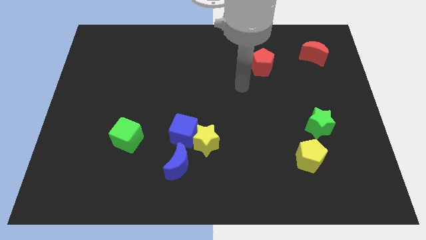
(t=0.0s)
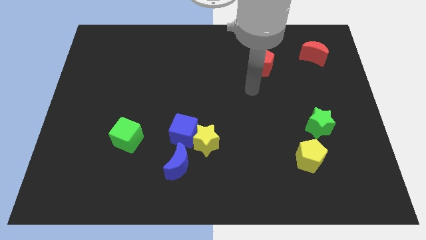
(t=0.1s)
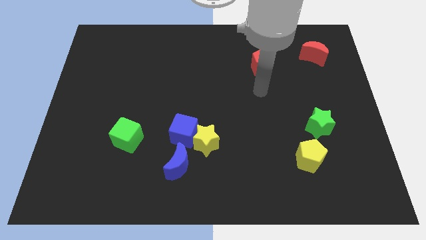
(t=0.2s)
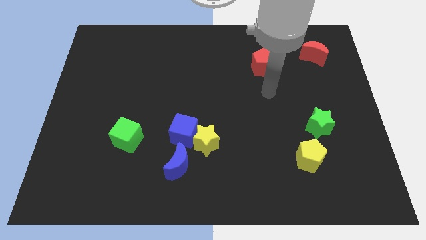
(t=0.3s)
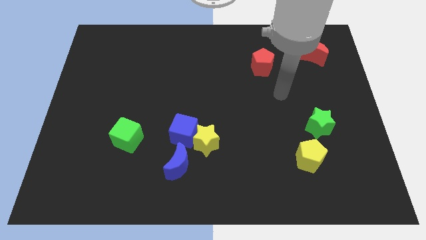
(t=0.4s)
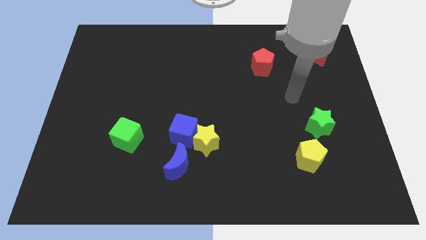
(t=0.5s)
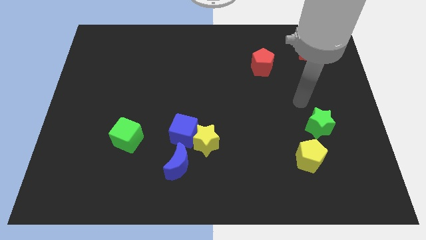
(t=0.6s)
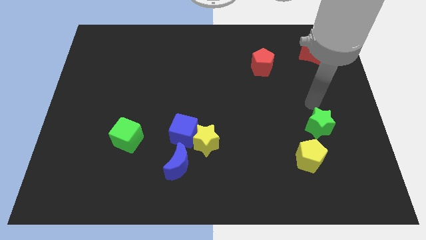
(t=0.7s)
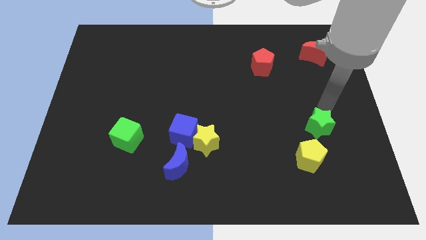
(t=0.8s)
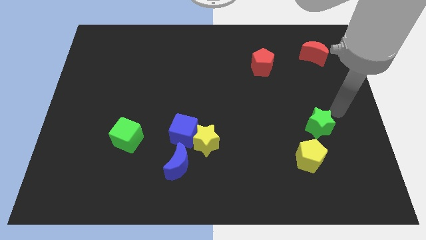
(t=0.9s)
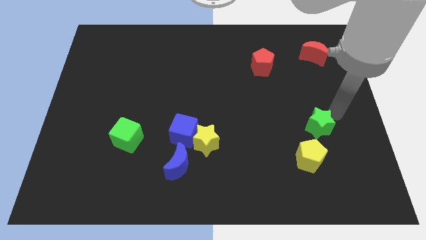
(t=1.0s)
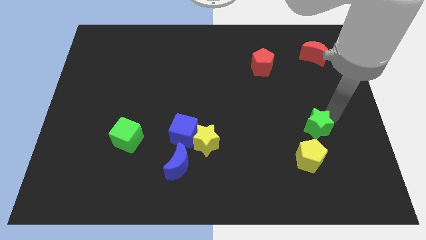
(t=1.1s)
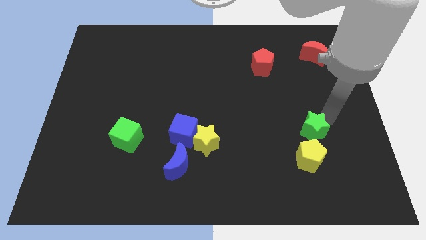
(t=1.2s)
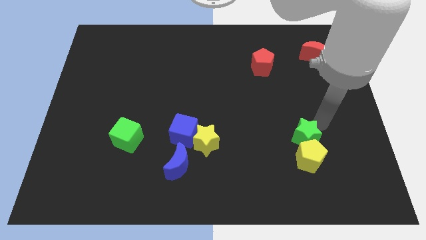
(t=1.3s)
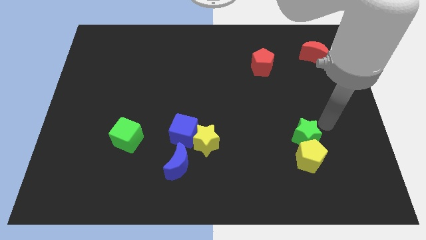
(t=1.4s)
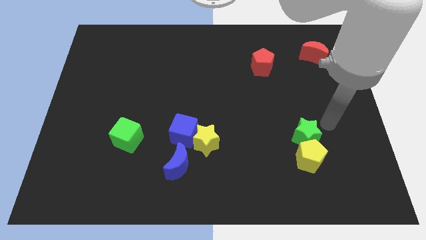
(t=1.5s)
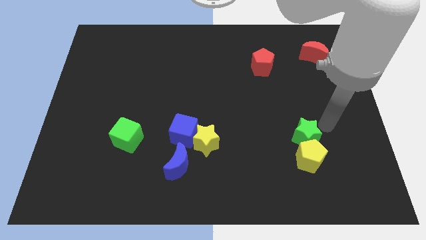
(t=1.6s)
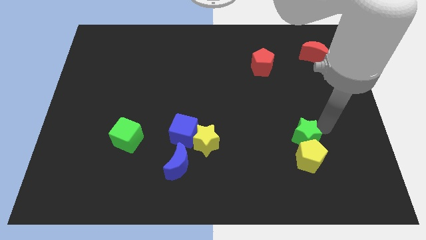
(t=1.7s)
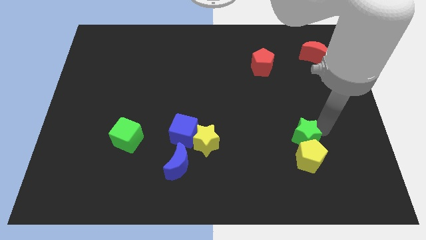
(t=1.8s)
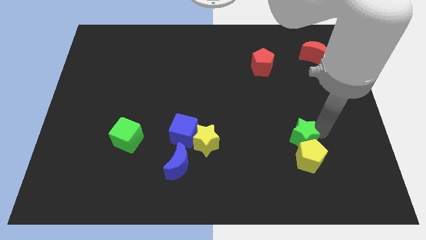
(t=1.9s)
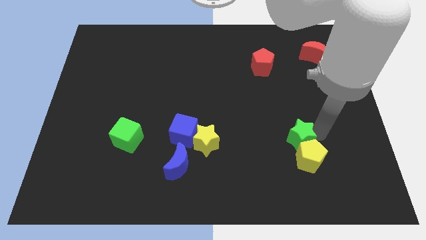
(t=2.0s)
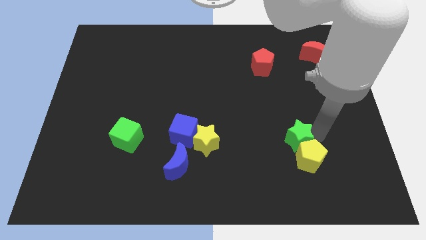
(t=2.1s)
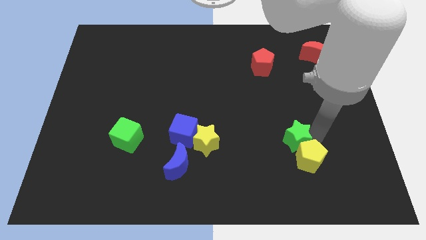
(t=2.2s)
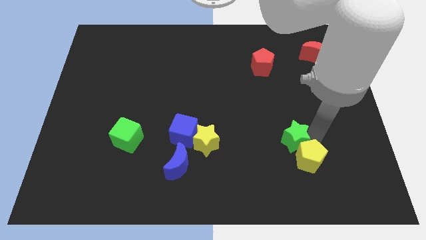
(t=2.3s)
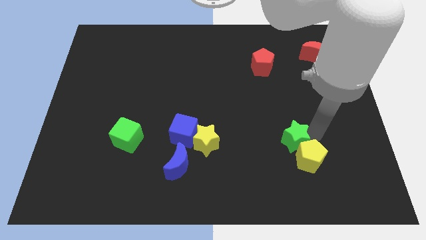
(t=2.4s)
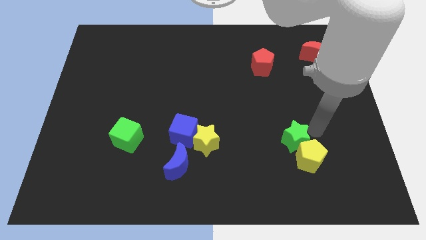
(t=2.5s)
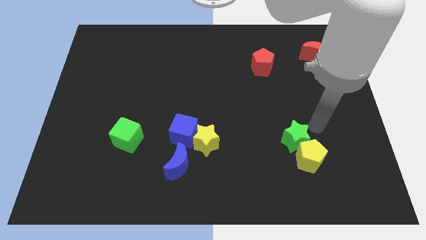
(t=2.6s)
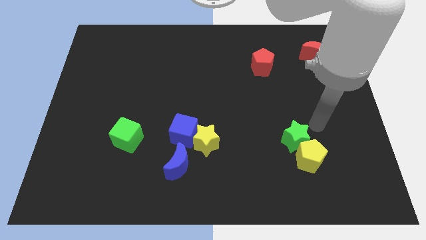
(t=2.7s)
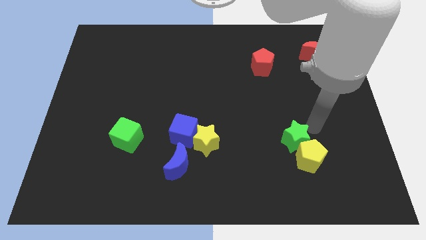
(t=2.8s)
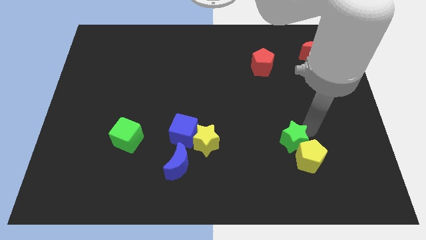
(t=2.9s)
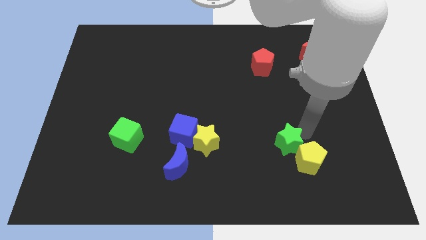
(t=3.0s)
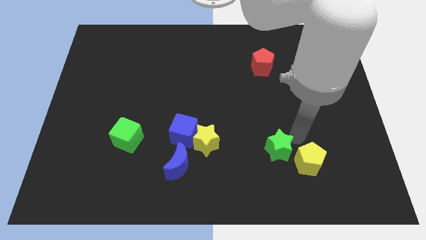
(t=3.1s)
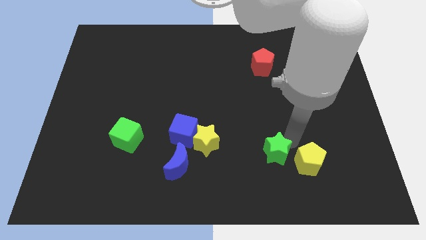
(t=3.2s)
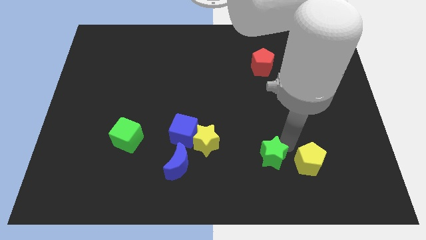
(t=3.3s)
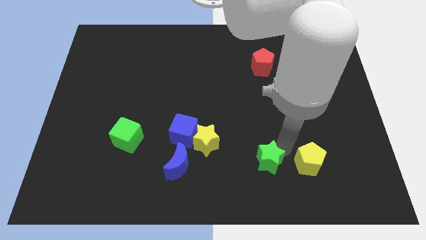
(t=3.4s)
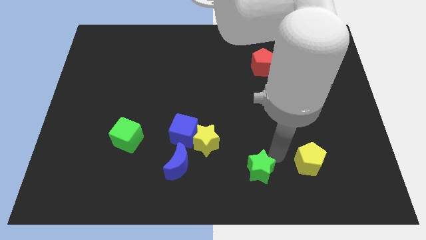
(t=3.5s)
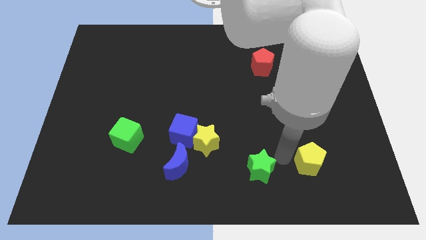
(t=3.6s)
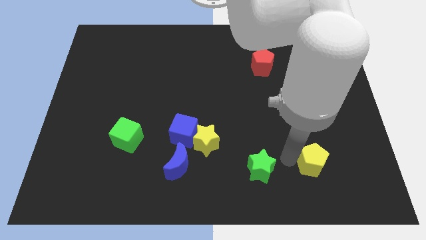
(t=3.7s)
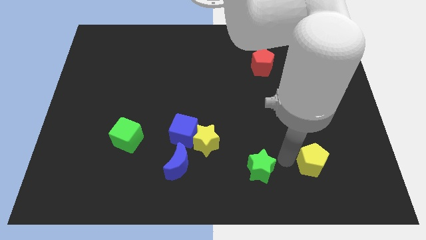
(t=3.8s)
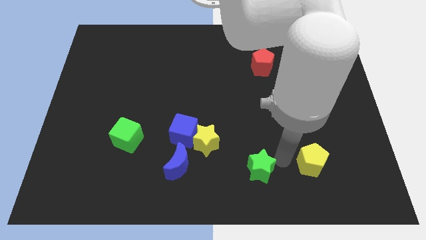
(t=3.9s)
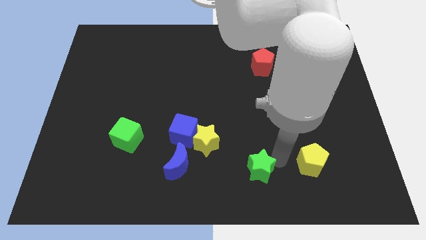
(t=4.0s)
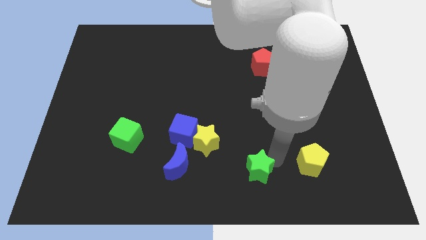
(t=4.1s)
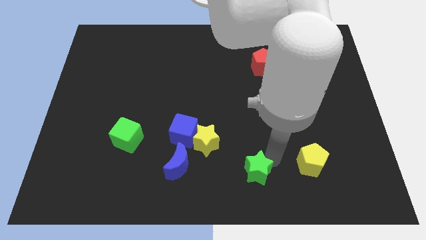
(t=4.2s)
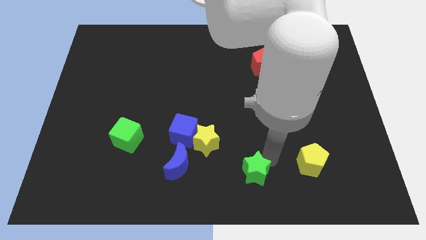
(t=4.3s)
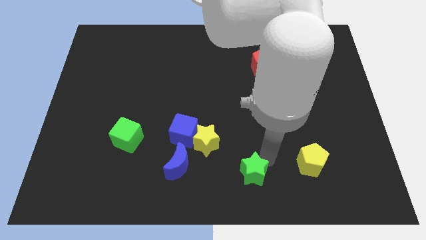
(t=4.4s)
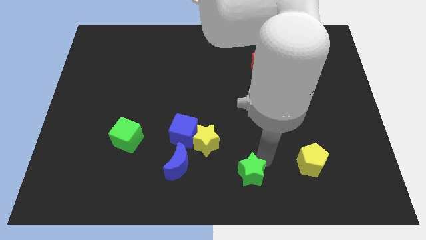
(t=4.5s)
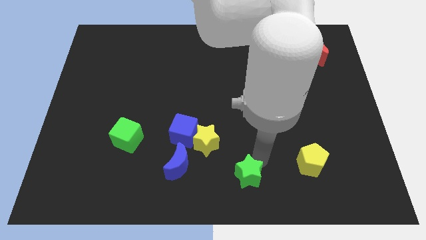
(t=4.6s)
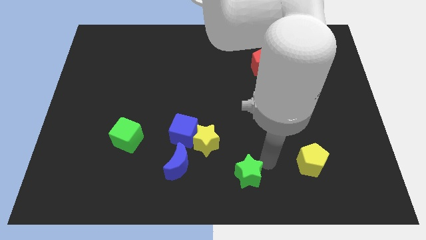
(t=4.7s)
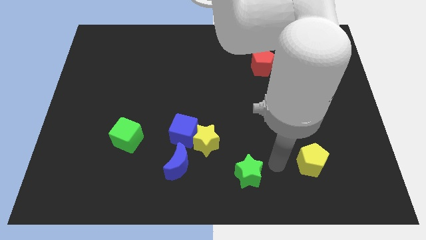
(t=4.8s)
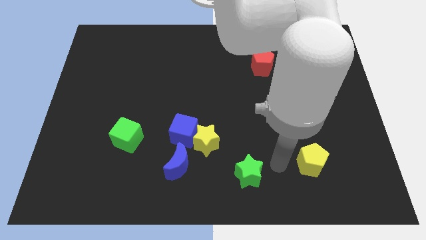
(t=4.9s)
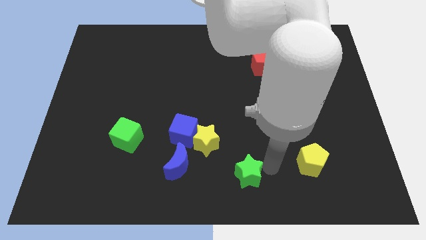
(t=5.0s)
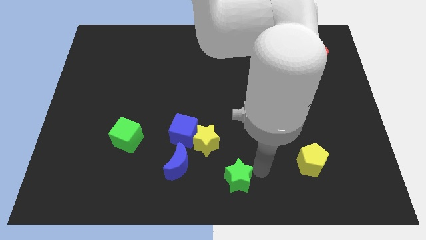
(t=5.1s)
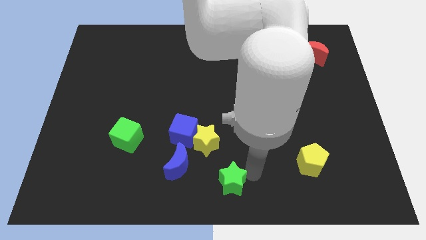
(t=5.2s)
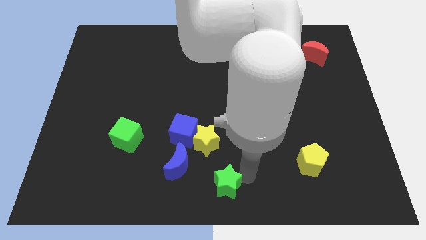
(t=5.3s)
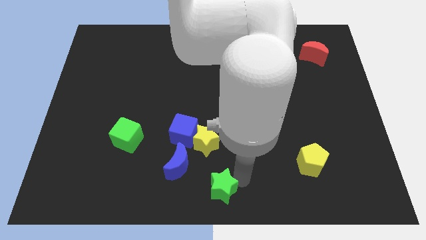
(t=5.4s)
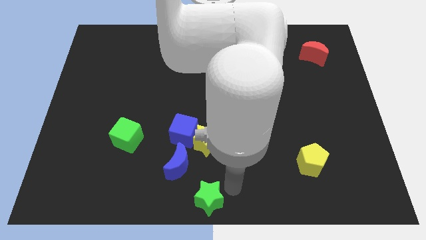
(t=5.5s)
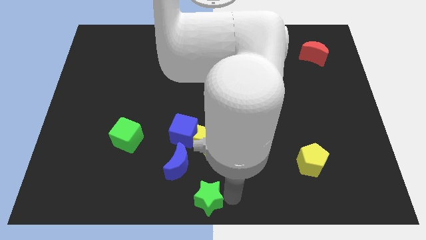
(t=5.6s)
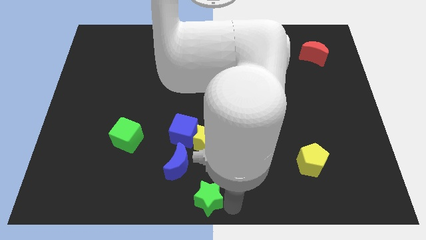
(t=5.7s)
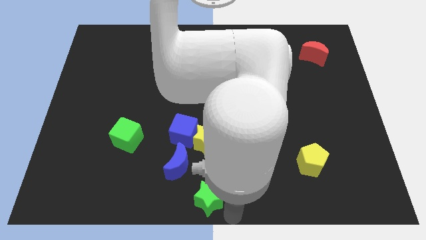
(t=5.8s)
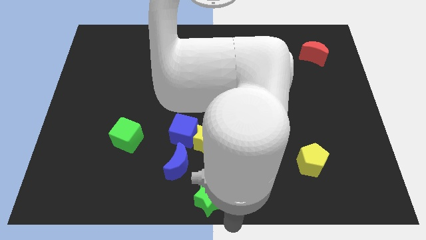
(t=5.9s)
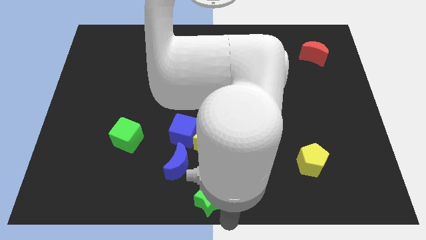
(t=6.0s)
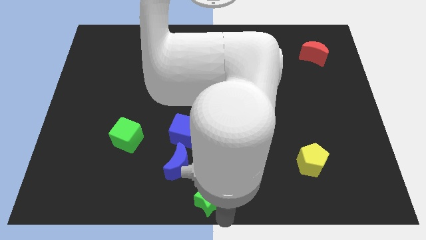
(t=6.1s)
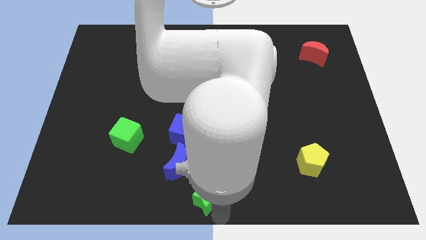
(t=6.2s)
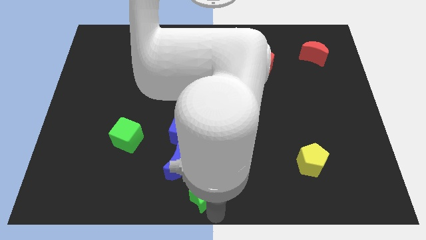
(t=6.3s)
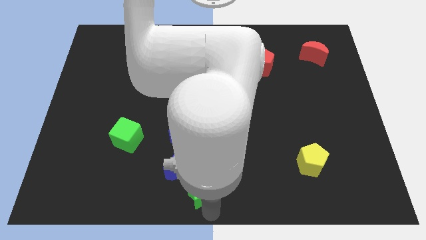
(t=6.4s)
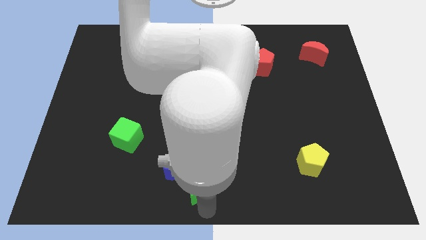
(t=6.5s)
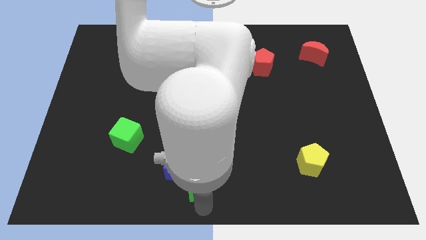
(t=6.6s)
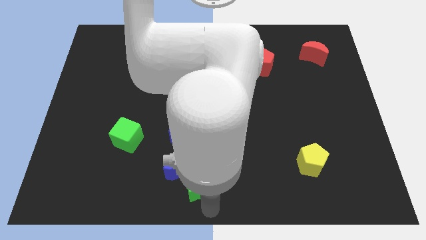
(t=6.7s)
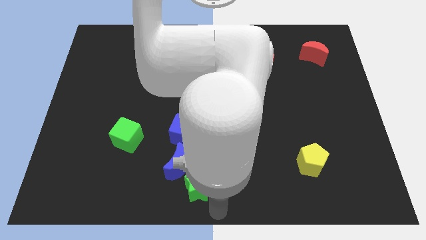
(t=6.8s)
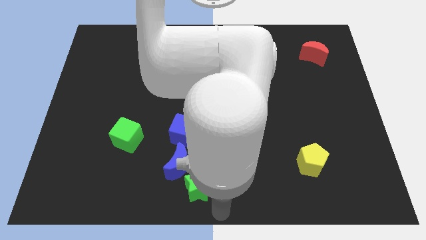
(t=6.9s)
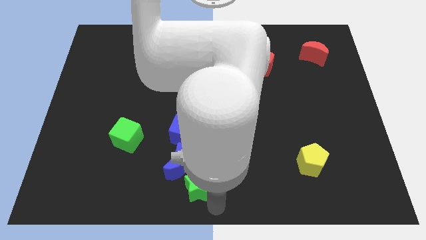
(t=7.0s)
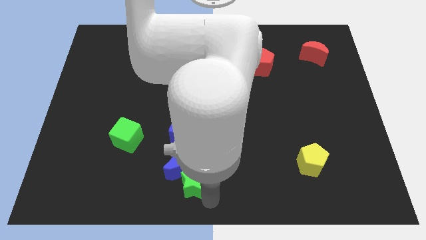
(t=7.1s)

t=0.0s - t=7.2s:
put the green star to the blue moon
